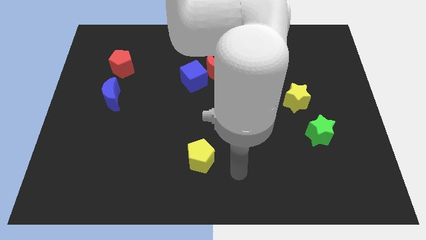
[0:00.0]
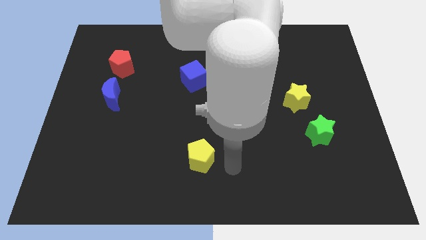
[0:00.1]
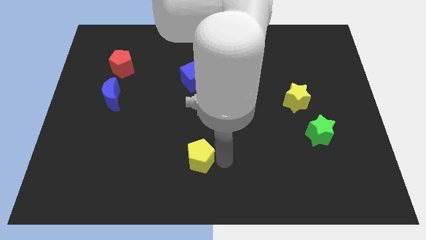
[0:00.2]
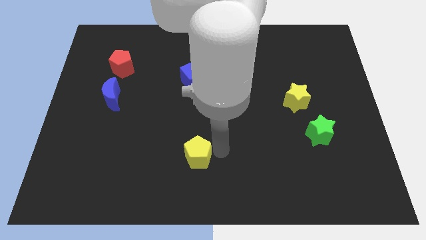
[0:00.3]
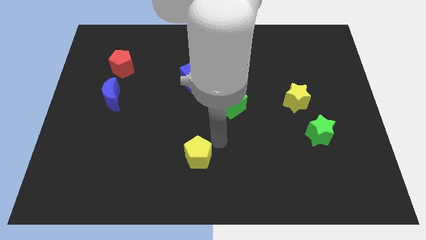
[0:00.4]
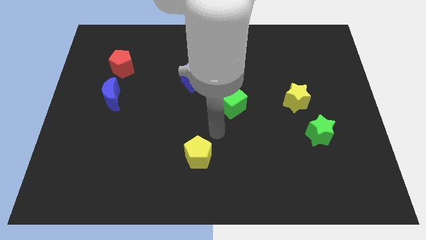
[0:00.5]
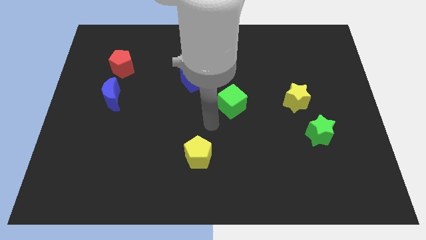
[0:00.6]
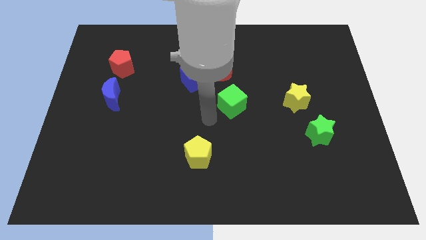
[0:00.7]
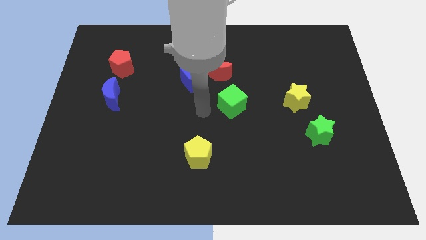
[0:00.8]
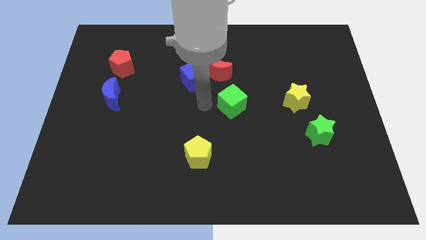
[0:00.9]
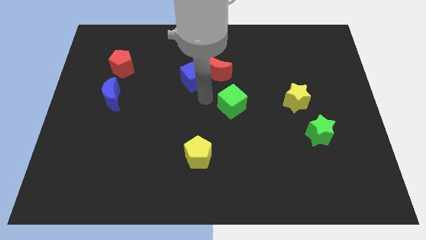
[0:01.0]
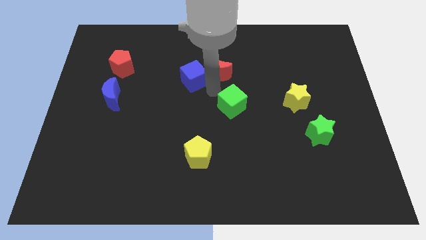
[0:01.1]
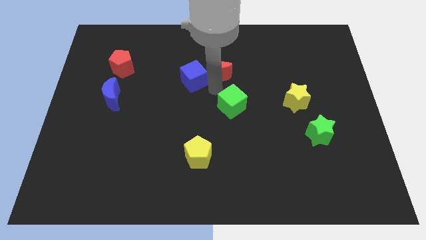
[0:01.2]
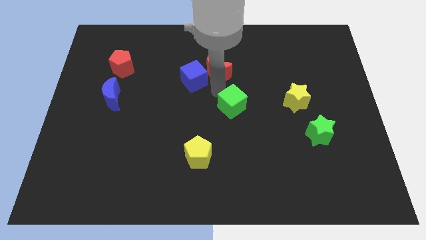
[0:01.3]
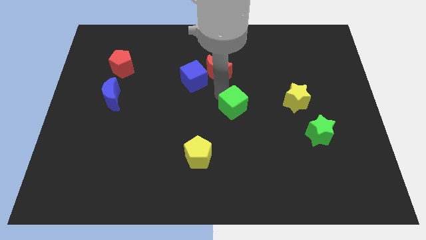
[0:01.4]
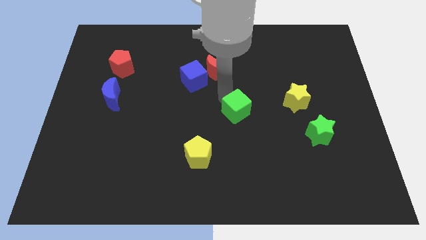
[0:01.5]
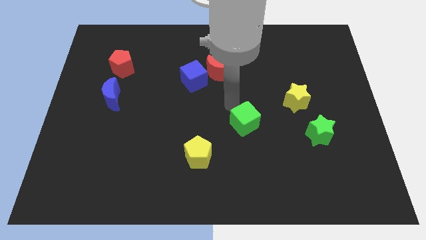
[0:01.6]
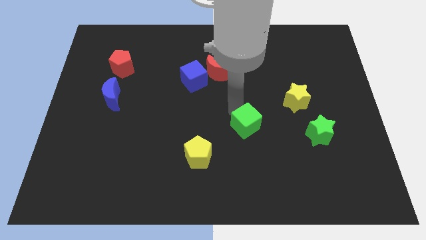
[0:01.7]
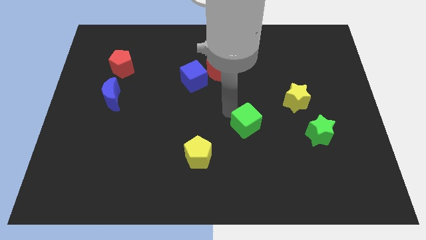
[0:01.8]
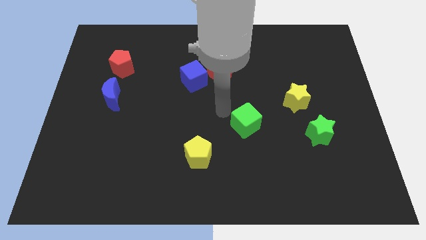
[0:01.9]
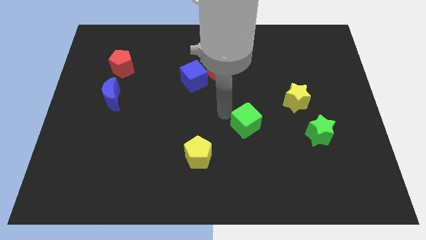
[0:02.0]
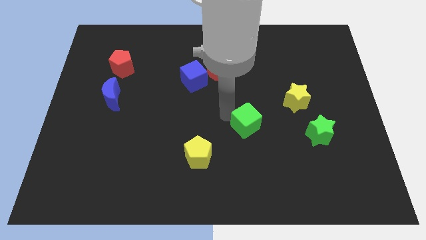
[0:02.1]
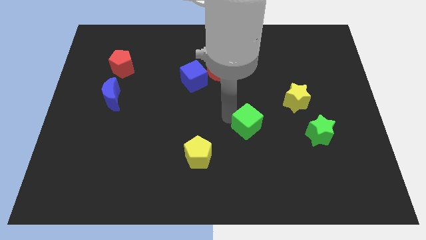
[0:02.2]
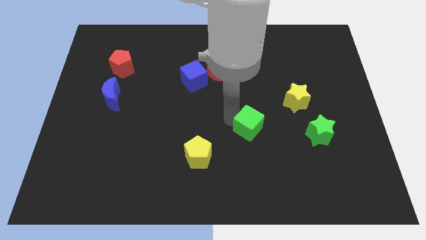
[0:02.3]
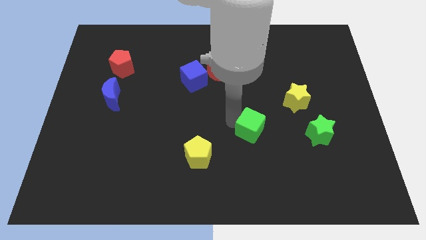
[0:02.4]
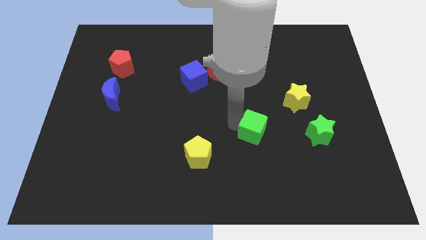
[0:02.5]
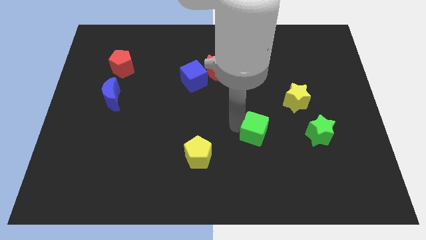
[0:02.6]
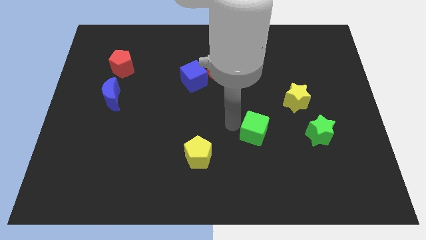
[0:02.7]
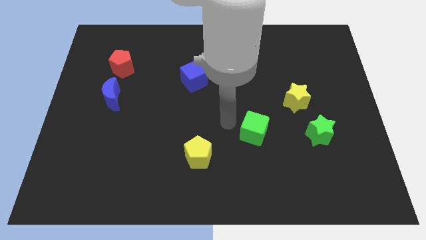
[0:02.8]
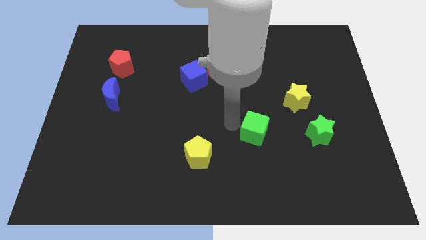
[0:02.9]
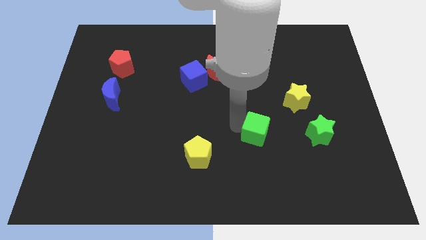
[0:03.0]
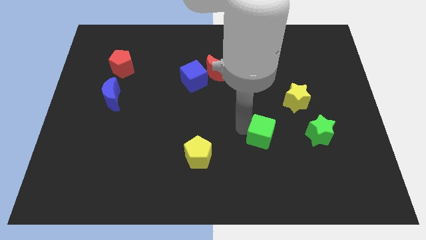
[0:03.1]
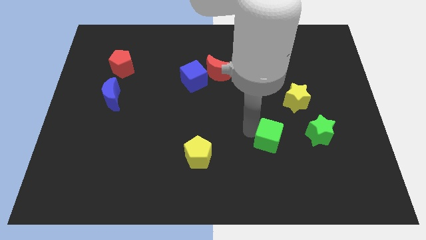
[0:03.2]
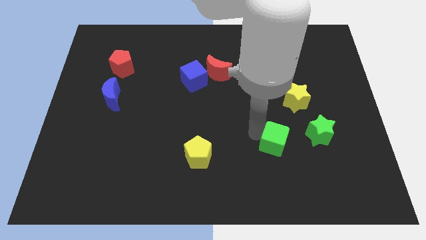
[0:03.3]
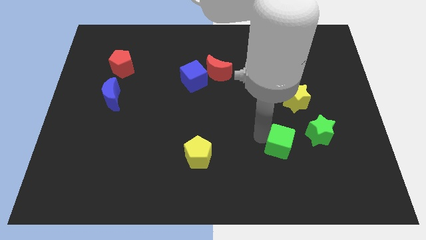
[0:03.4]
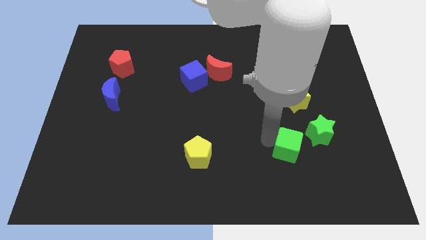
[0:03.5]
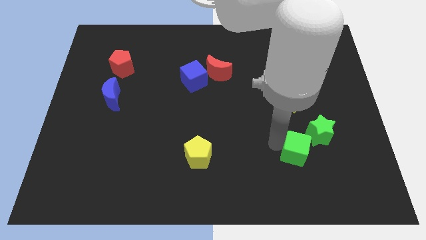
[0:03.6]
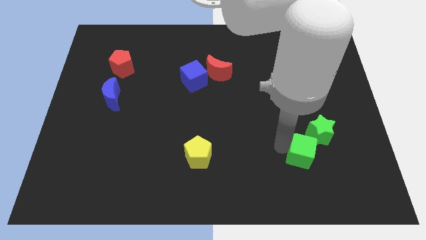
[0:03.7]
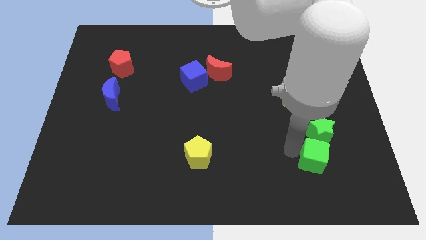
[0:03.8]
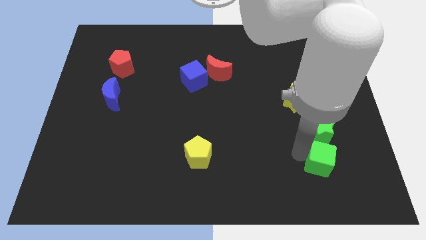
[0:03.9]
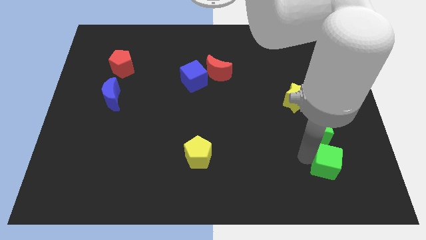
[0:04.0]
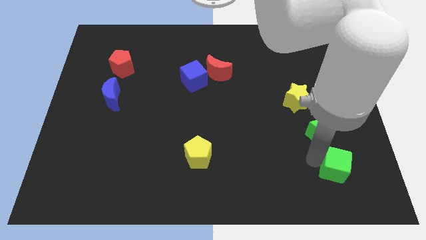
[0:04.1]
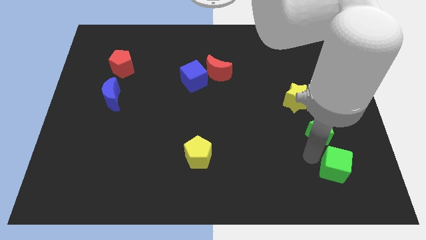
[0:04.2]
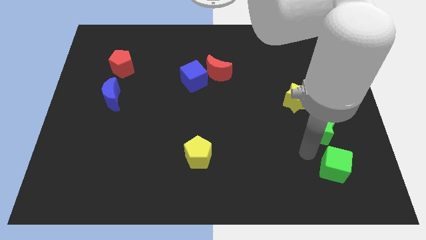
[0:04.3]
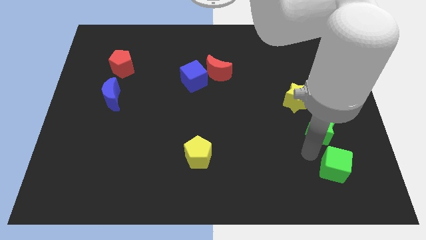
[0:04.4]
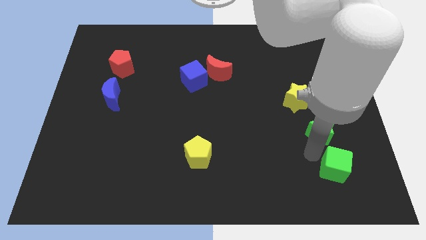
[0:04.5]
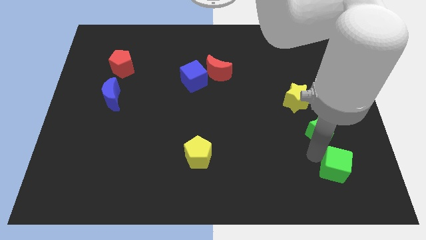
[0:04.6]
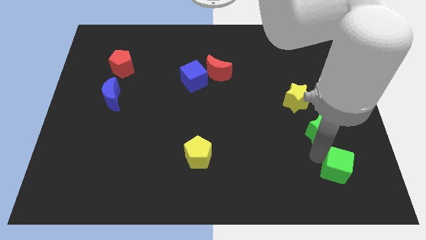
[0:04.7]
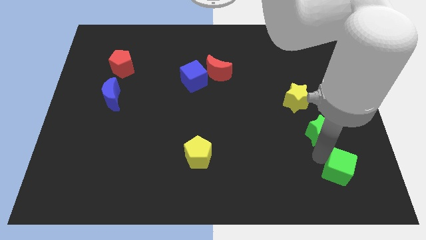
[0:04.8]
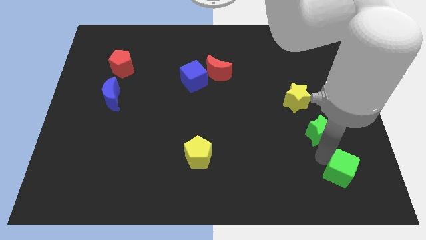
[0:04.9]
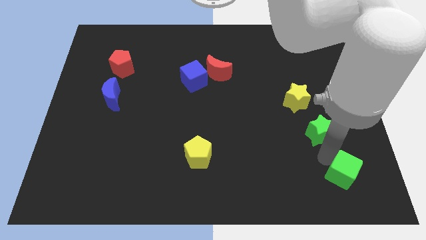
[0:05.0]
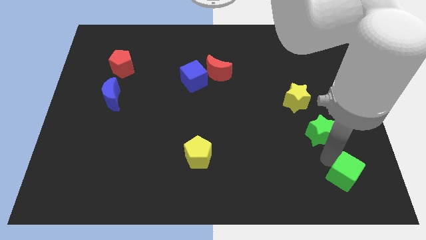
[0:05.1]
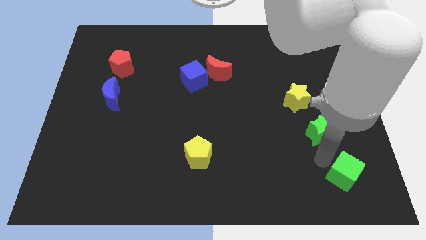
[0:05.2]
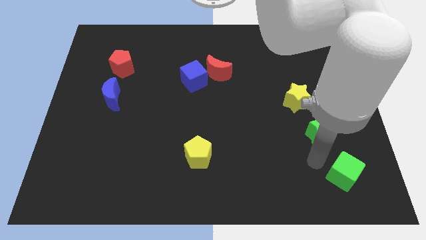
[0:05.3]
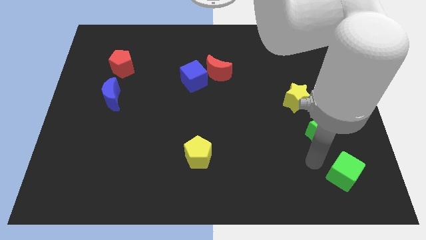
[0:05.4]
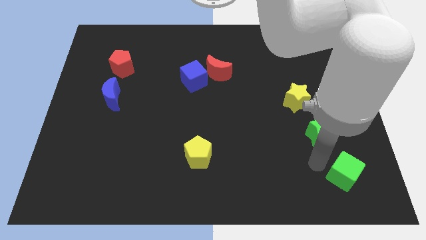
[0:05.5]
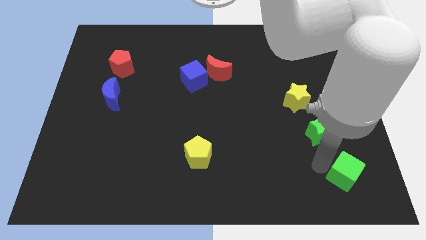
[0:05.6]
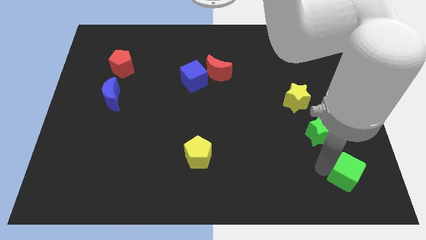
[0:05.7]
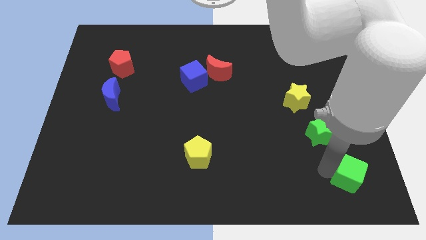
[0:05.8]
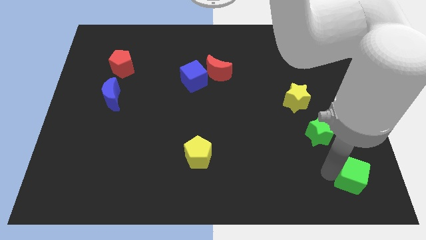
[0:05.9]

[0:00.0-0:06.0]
move the green cube to the lower right corner

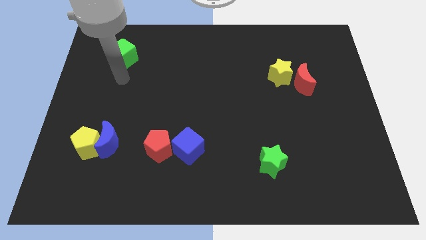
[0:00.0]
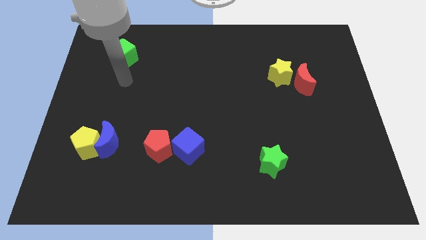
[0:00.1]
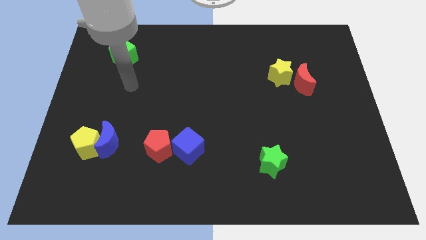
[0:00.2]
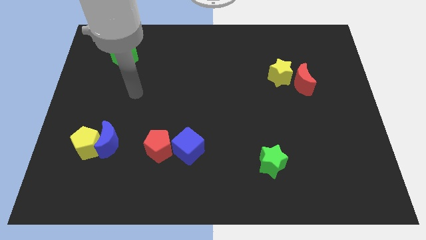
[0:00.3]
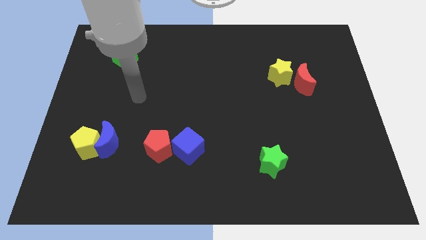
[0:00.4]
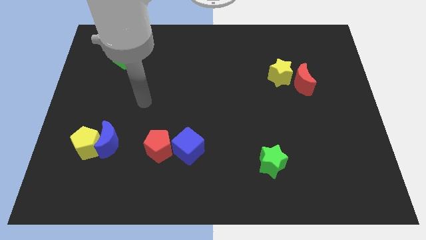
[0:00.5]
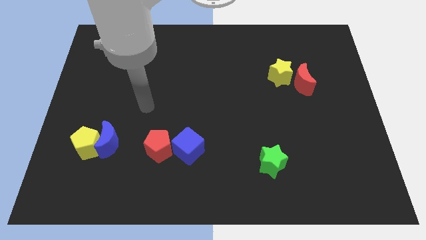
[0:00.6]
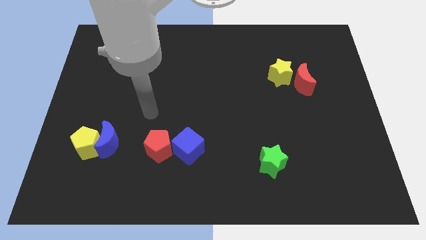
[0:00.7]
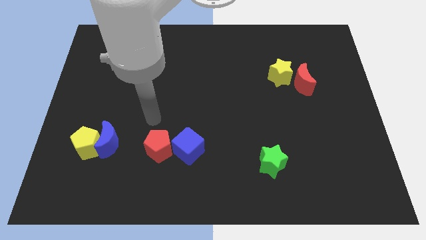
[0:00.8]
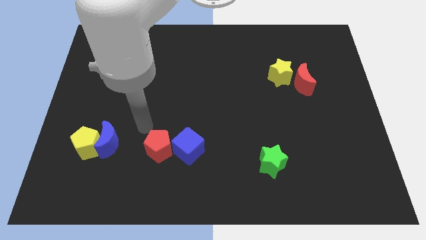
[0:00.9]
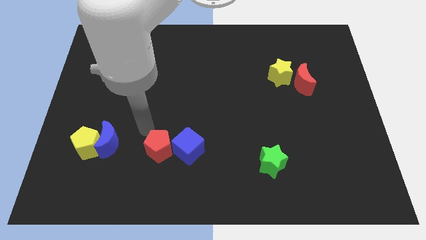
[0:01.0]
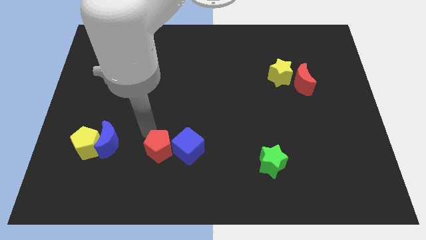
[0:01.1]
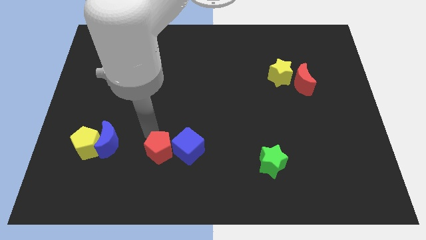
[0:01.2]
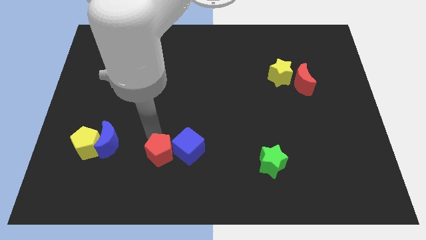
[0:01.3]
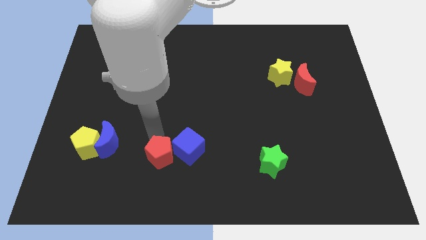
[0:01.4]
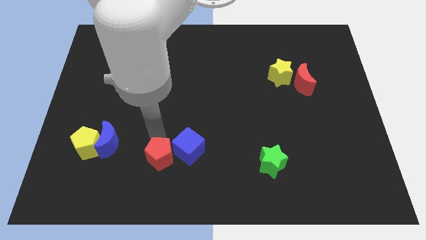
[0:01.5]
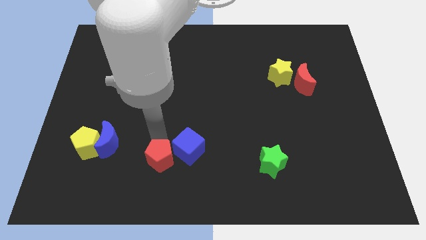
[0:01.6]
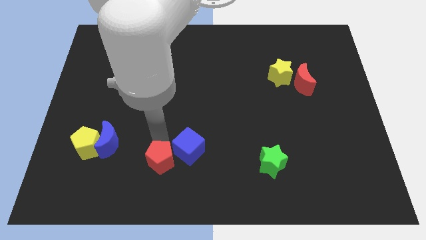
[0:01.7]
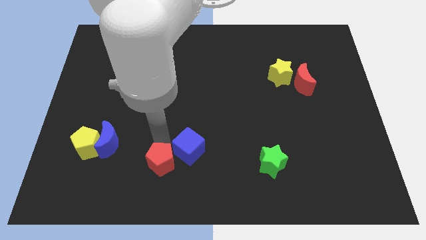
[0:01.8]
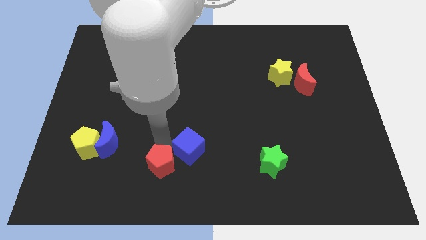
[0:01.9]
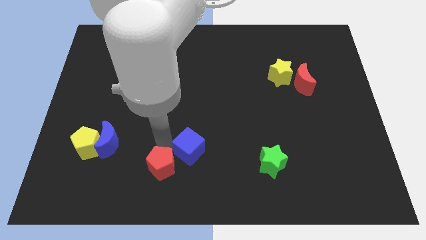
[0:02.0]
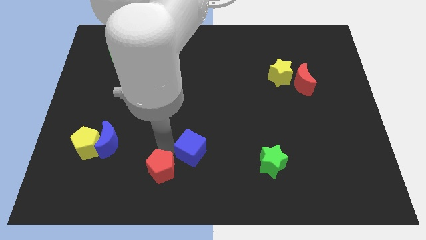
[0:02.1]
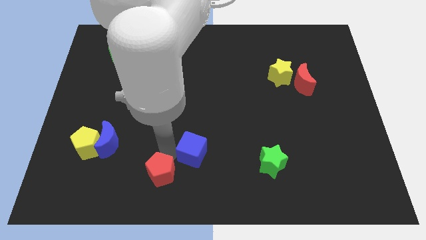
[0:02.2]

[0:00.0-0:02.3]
move the red pentagon to the bottom side
